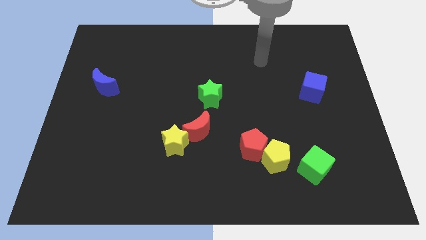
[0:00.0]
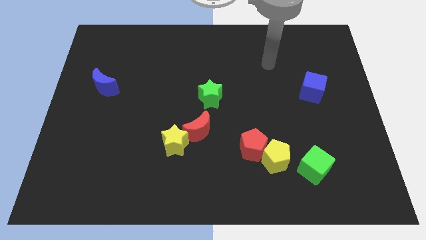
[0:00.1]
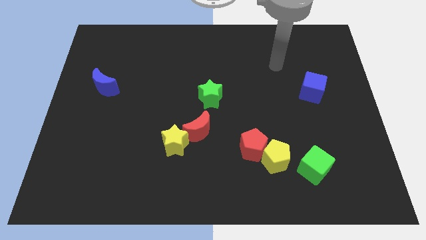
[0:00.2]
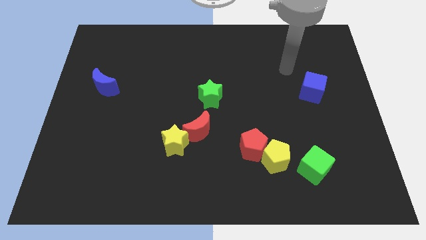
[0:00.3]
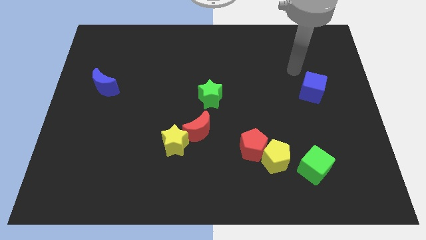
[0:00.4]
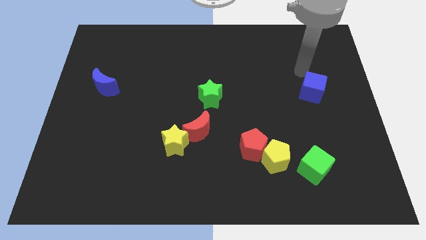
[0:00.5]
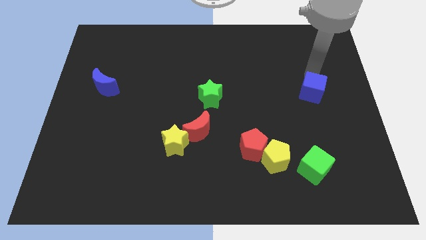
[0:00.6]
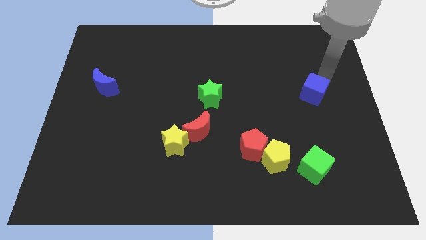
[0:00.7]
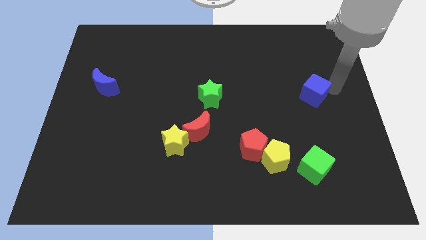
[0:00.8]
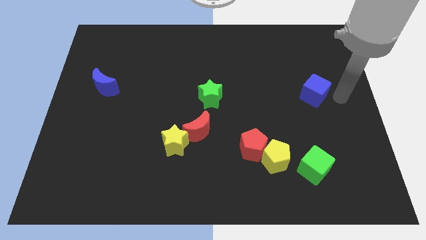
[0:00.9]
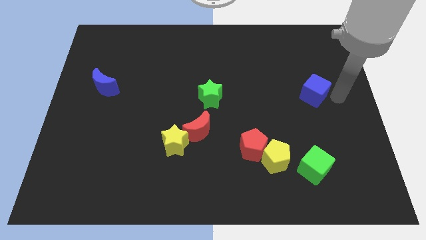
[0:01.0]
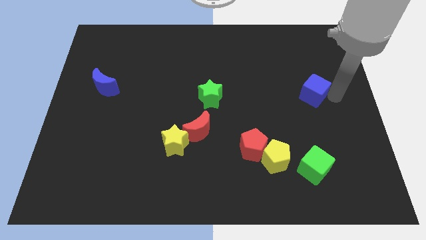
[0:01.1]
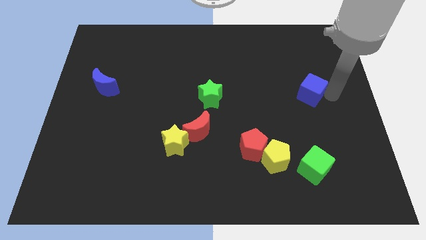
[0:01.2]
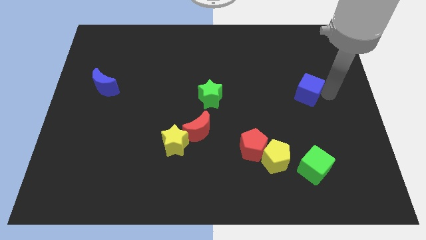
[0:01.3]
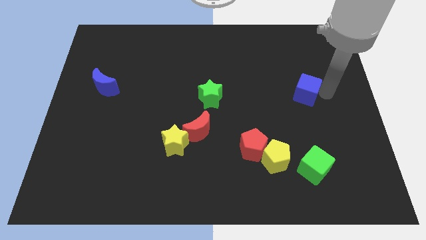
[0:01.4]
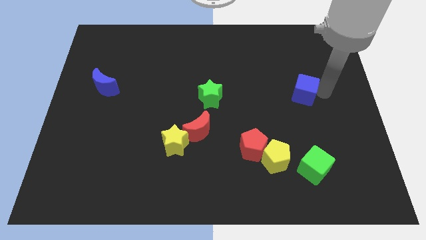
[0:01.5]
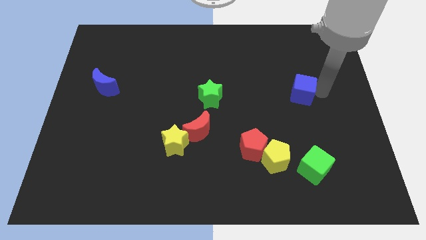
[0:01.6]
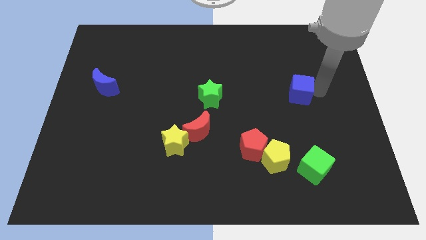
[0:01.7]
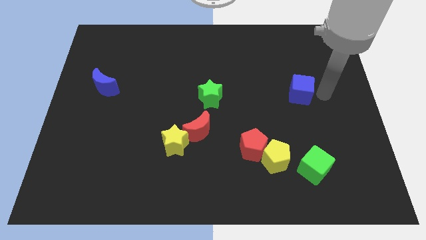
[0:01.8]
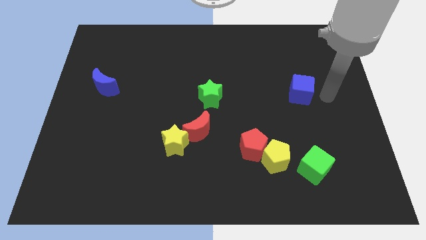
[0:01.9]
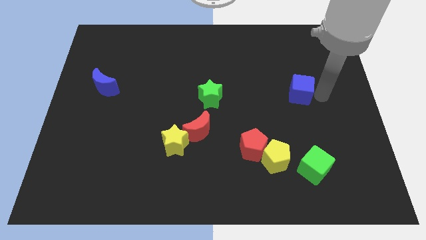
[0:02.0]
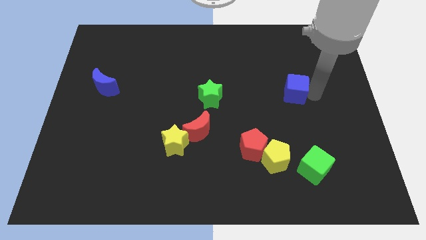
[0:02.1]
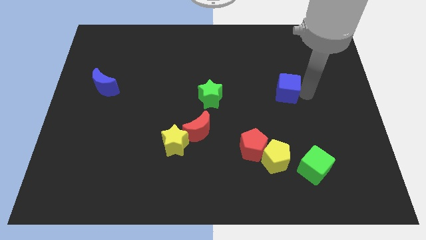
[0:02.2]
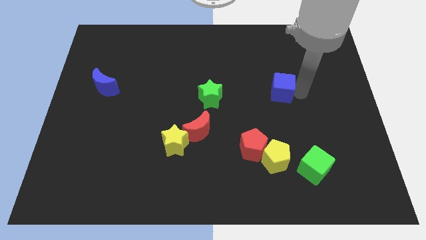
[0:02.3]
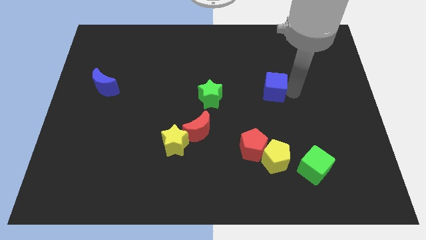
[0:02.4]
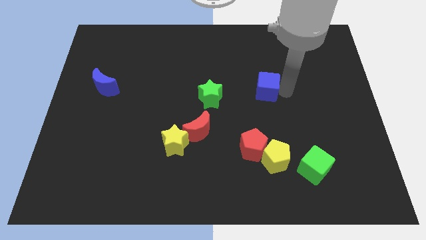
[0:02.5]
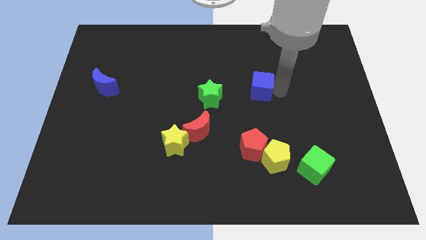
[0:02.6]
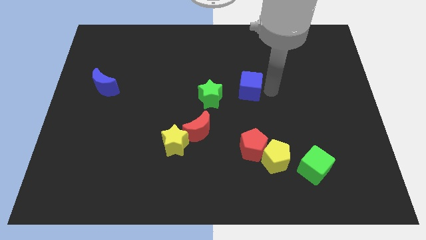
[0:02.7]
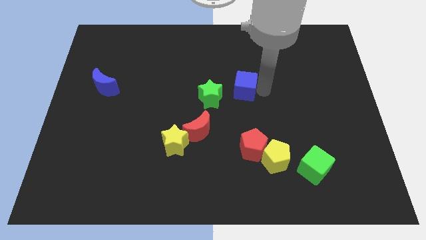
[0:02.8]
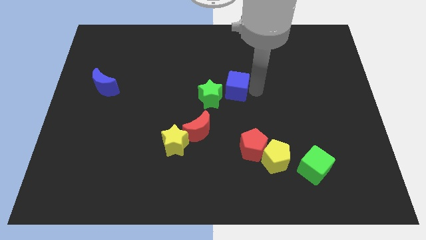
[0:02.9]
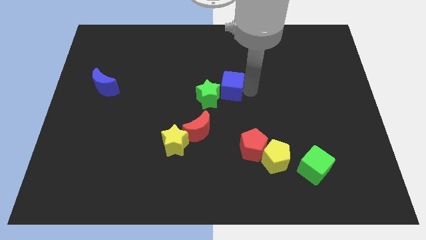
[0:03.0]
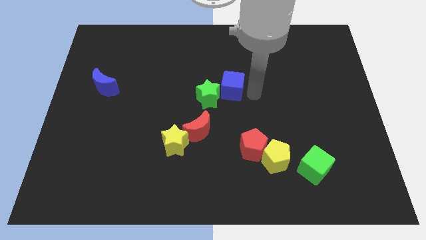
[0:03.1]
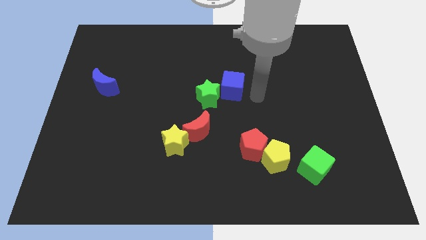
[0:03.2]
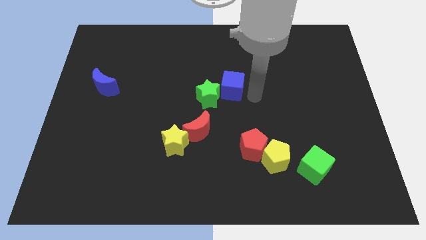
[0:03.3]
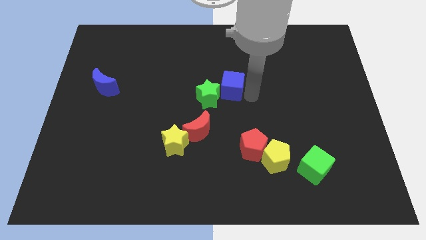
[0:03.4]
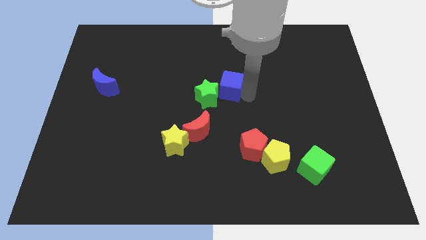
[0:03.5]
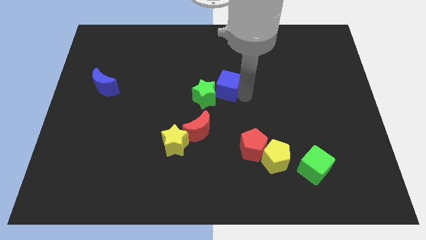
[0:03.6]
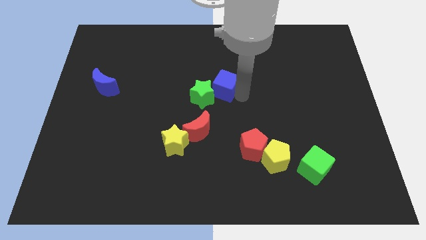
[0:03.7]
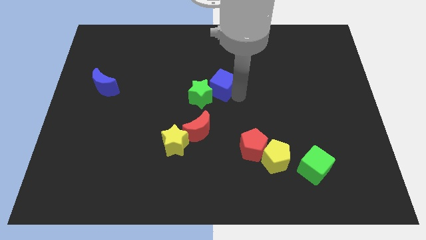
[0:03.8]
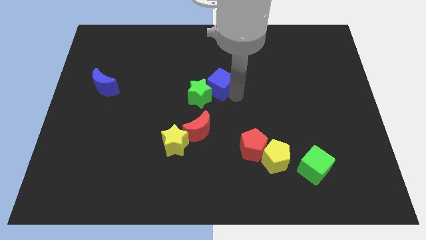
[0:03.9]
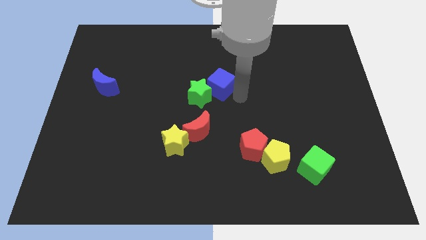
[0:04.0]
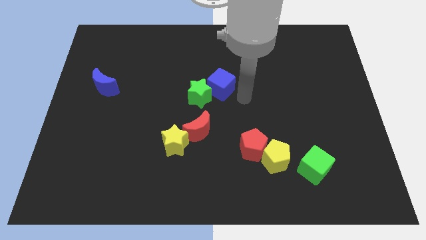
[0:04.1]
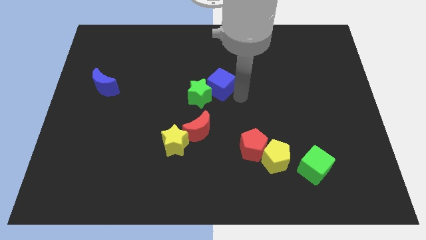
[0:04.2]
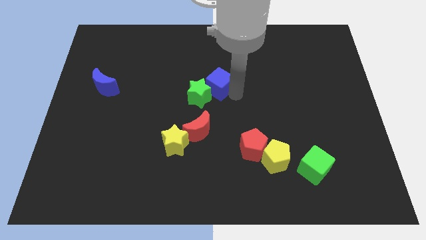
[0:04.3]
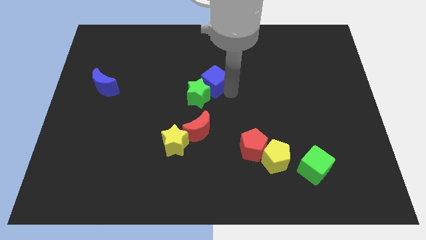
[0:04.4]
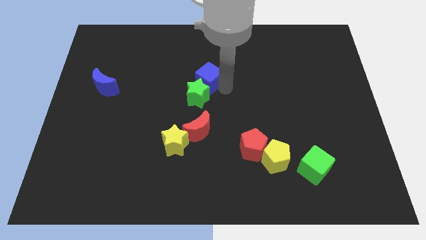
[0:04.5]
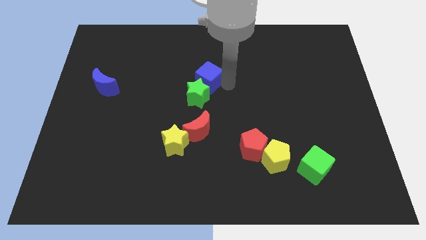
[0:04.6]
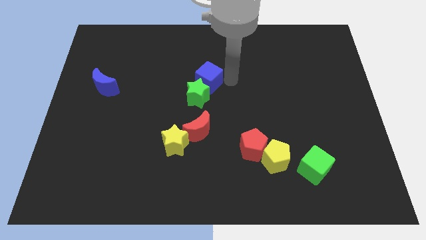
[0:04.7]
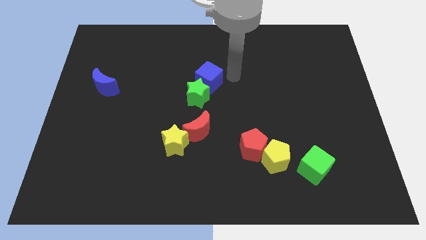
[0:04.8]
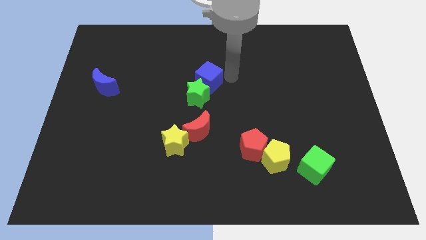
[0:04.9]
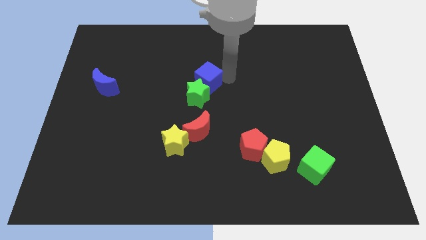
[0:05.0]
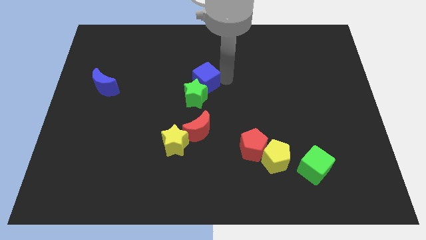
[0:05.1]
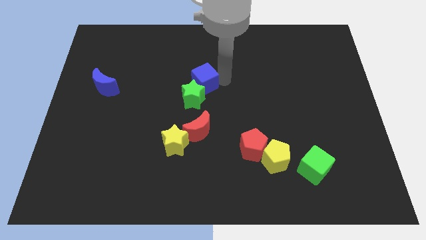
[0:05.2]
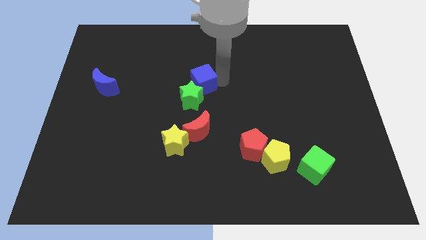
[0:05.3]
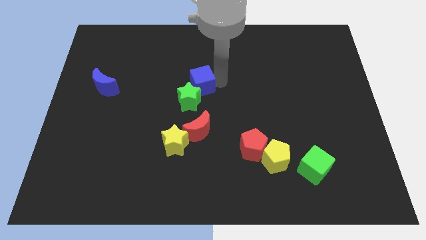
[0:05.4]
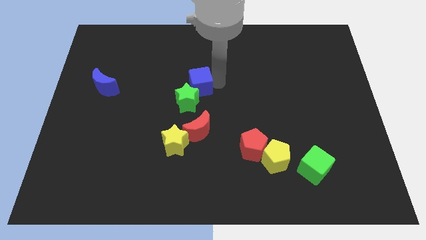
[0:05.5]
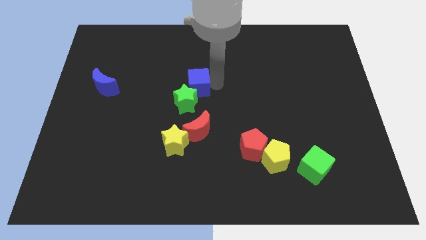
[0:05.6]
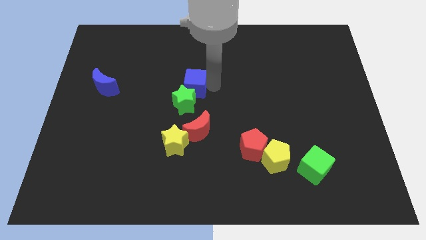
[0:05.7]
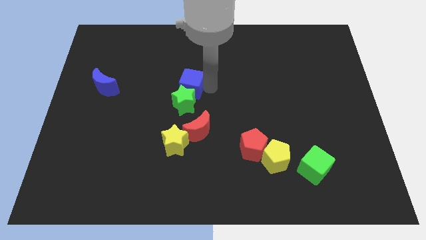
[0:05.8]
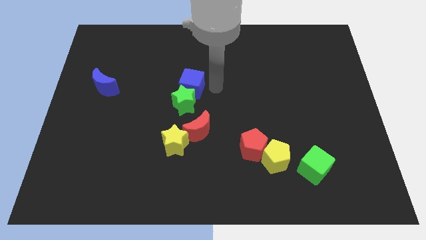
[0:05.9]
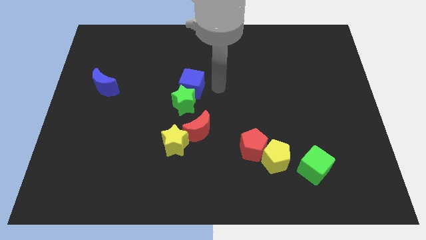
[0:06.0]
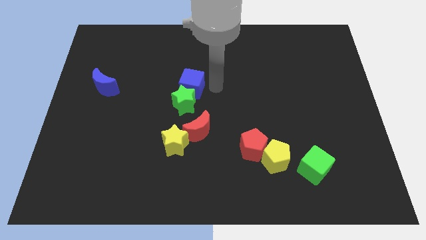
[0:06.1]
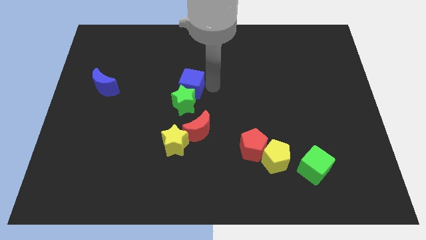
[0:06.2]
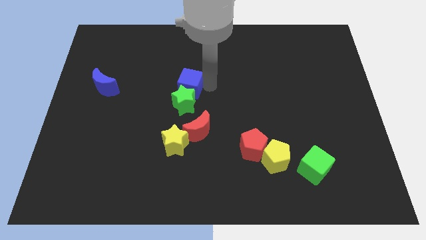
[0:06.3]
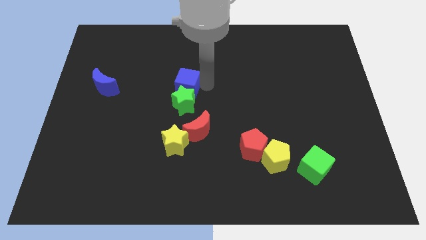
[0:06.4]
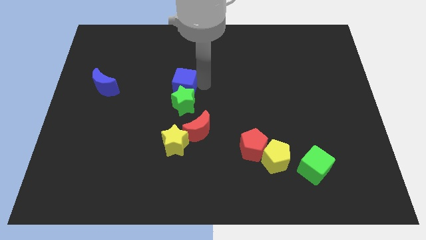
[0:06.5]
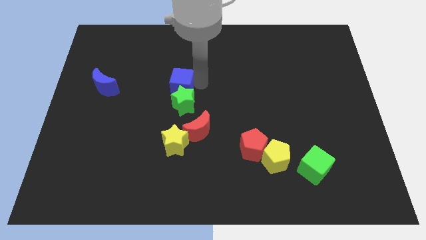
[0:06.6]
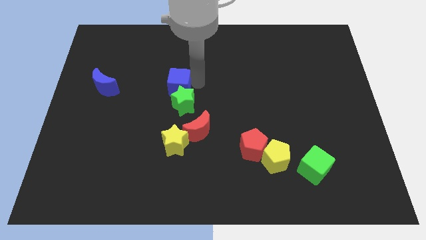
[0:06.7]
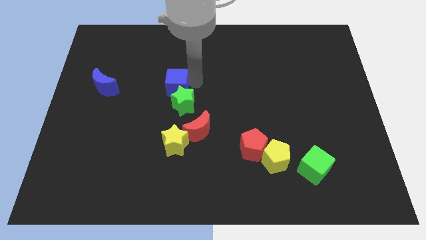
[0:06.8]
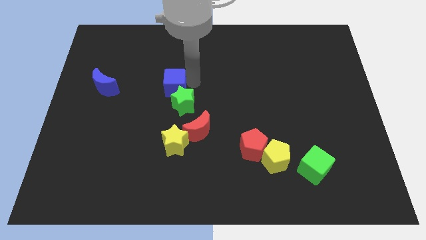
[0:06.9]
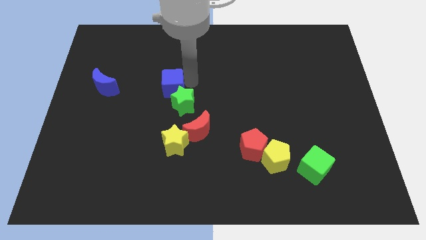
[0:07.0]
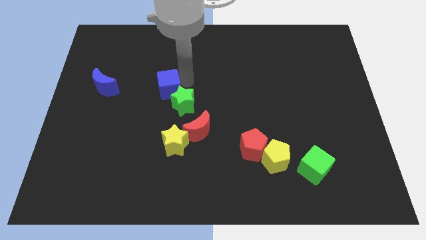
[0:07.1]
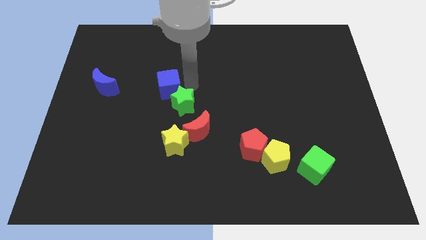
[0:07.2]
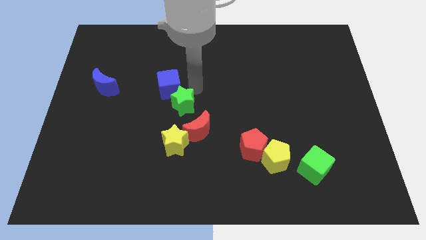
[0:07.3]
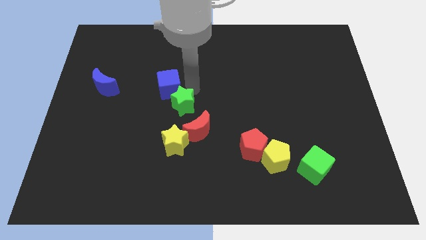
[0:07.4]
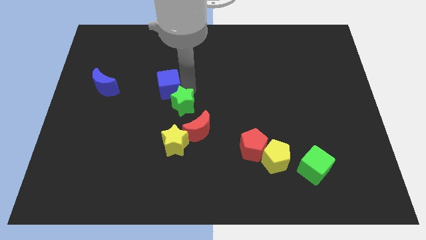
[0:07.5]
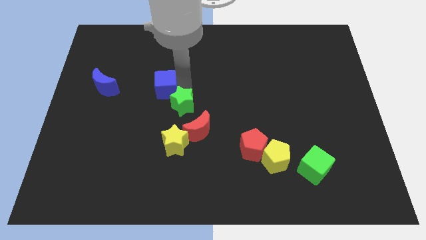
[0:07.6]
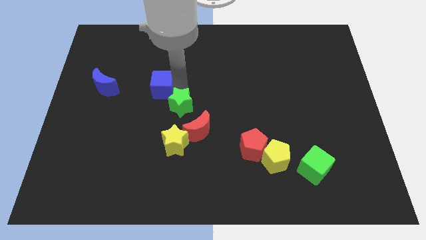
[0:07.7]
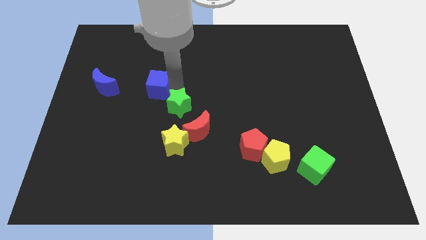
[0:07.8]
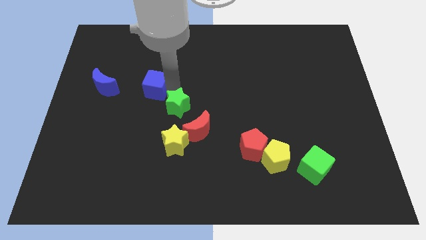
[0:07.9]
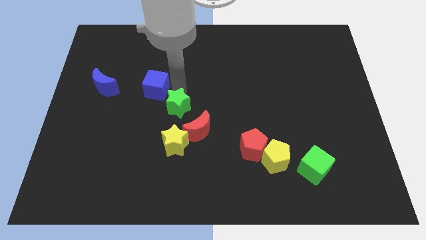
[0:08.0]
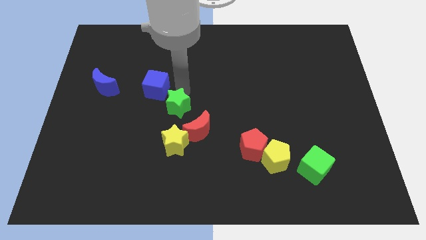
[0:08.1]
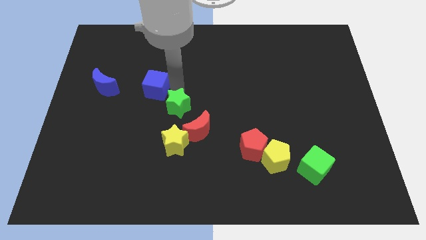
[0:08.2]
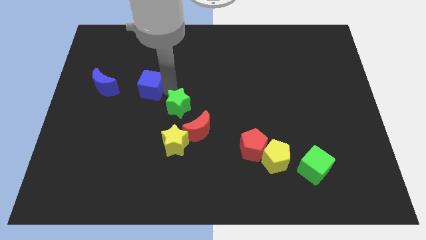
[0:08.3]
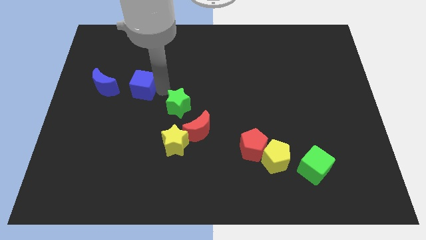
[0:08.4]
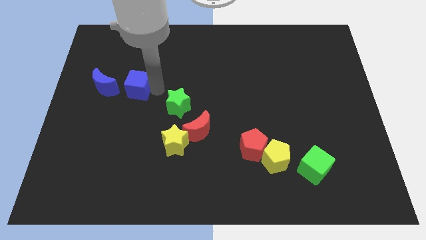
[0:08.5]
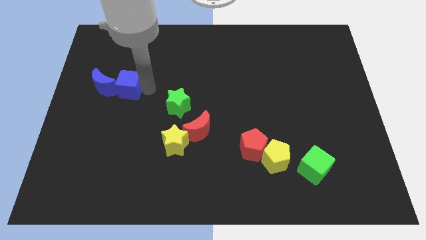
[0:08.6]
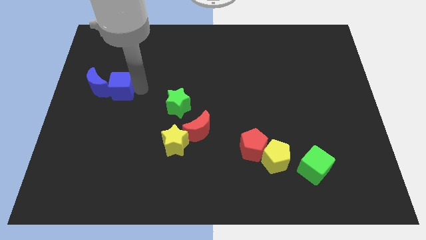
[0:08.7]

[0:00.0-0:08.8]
put the blue cube towards the blue moon
